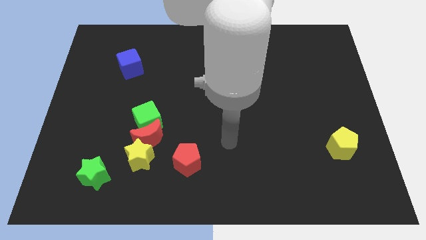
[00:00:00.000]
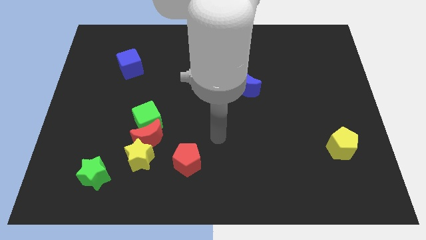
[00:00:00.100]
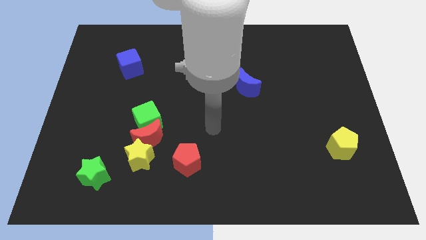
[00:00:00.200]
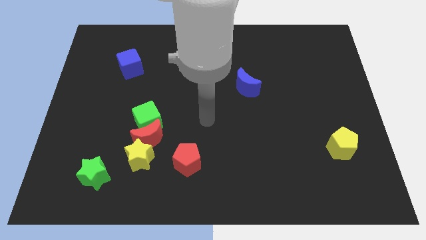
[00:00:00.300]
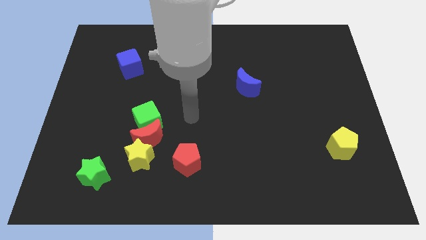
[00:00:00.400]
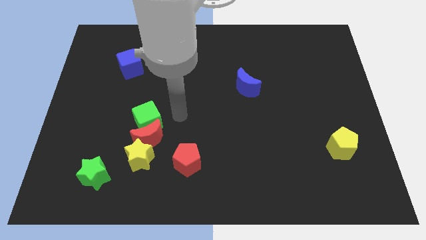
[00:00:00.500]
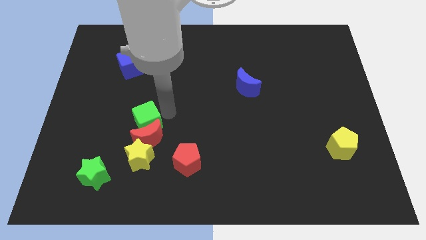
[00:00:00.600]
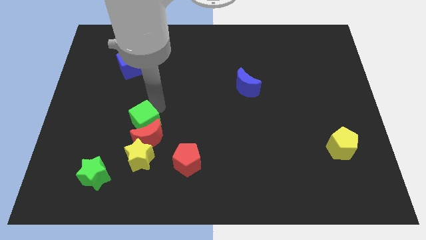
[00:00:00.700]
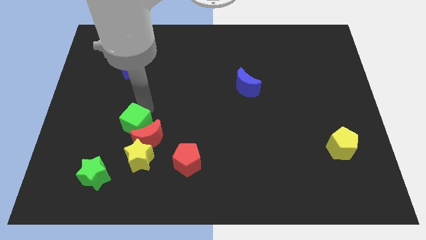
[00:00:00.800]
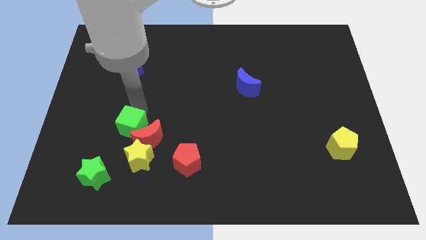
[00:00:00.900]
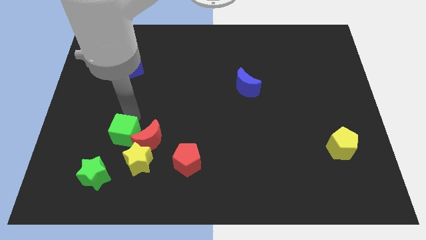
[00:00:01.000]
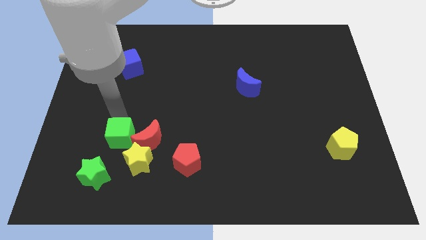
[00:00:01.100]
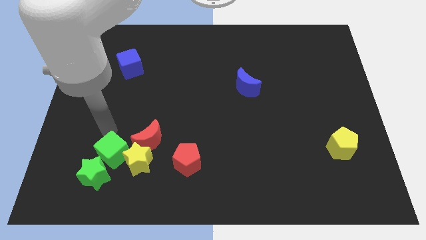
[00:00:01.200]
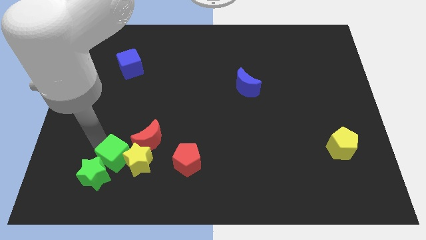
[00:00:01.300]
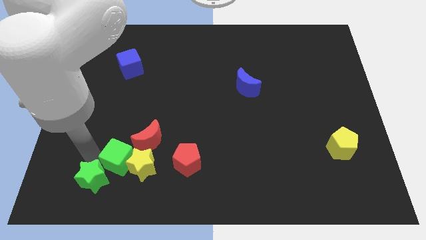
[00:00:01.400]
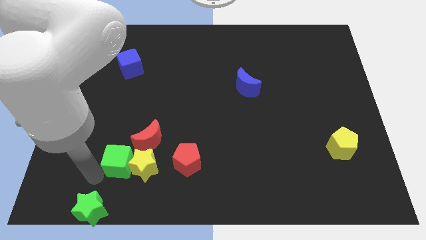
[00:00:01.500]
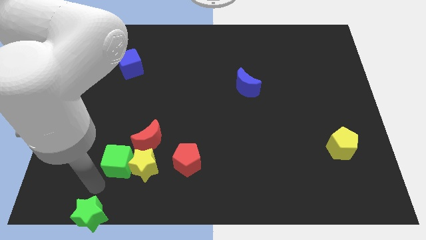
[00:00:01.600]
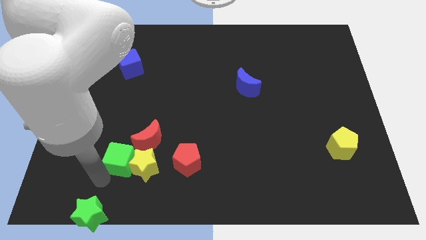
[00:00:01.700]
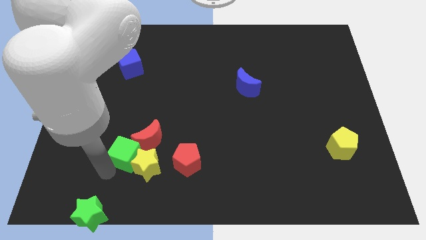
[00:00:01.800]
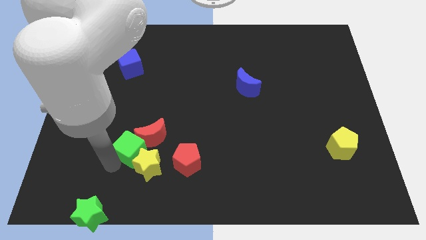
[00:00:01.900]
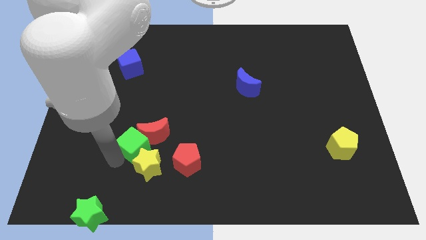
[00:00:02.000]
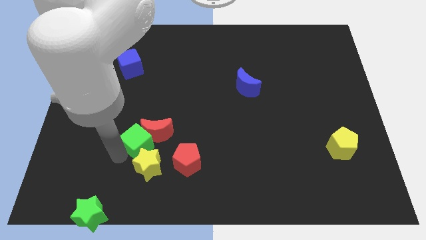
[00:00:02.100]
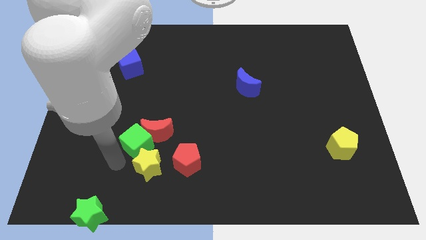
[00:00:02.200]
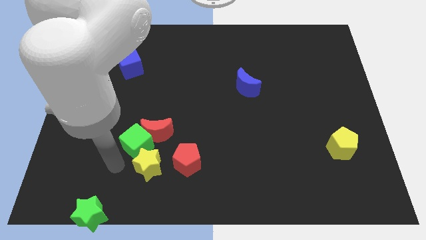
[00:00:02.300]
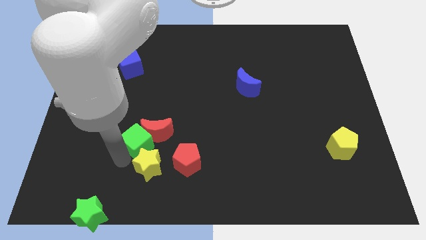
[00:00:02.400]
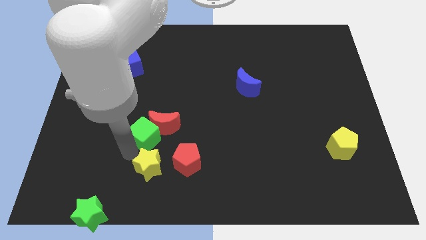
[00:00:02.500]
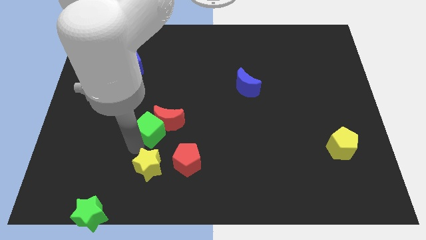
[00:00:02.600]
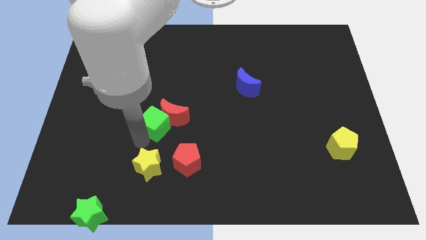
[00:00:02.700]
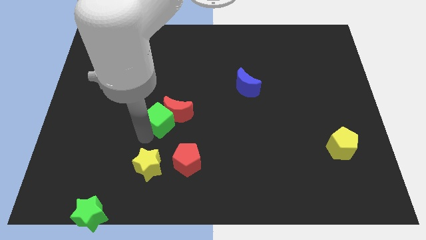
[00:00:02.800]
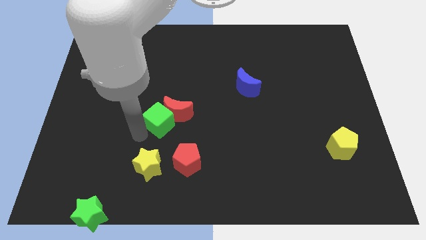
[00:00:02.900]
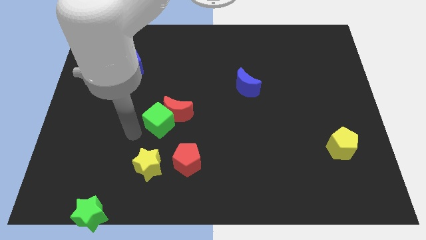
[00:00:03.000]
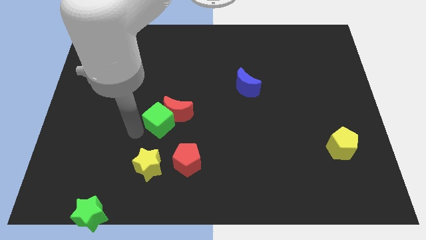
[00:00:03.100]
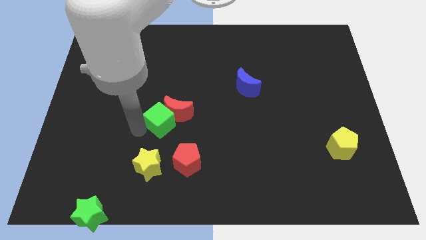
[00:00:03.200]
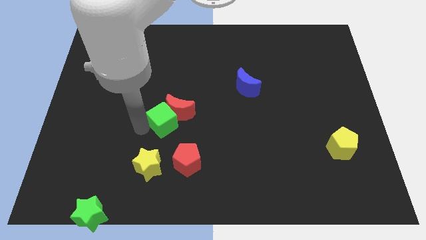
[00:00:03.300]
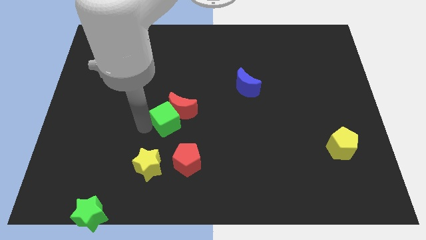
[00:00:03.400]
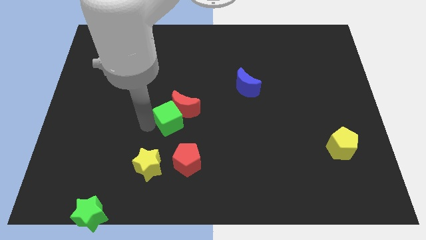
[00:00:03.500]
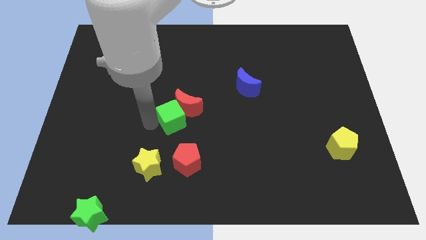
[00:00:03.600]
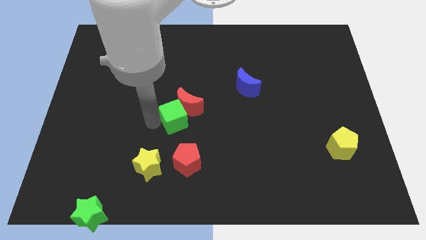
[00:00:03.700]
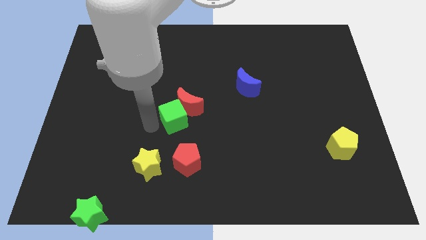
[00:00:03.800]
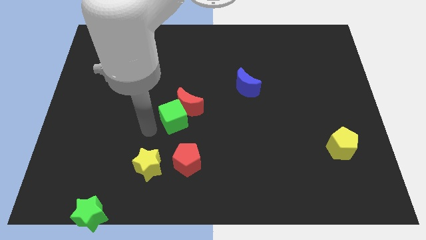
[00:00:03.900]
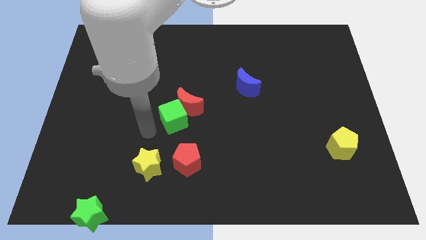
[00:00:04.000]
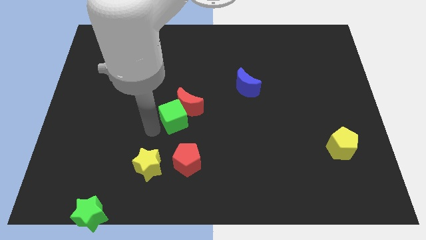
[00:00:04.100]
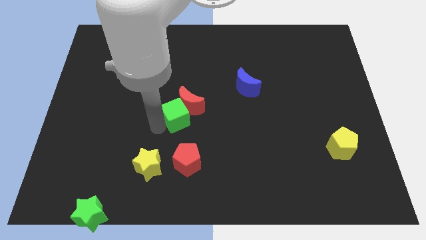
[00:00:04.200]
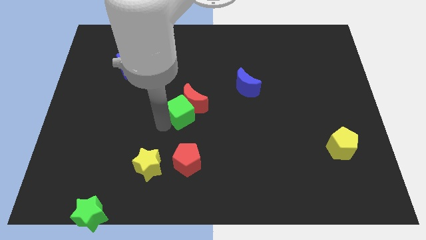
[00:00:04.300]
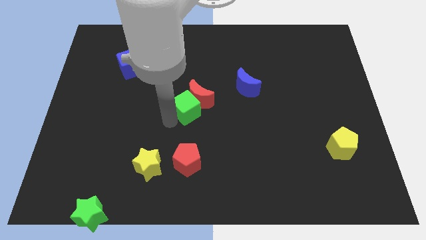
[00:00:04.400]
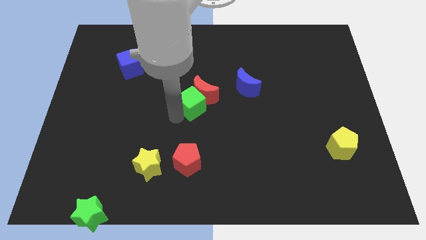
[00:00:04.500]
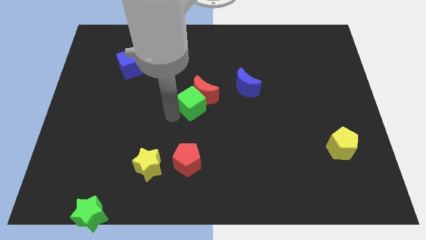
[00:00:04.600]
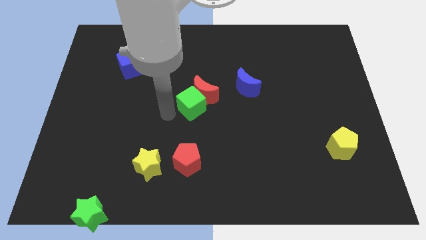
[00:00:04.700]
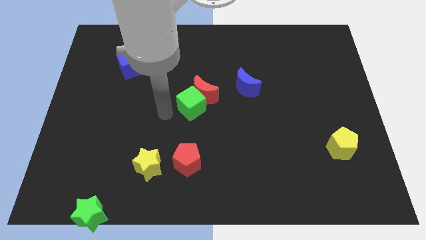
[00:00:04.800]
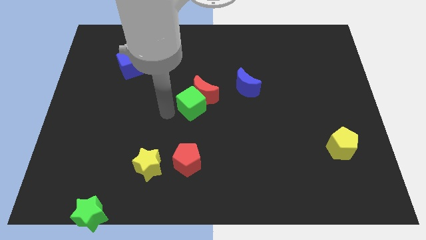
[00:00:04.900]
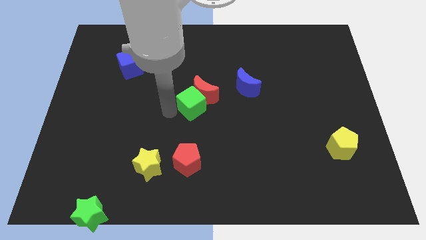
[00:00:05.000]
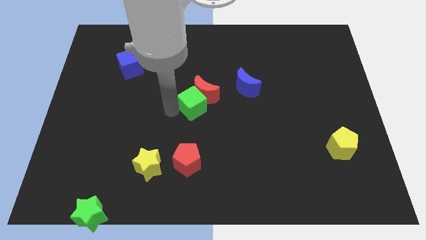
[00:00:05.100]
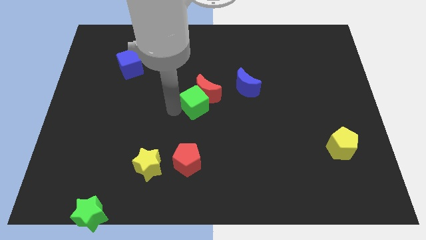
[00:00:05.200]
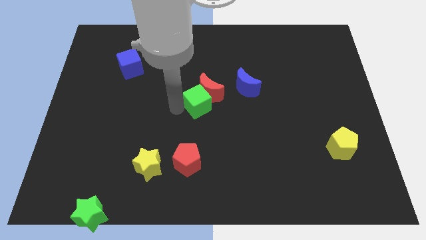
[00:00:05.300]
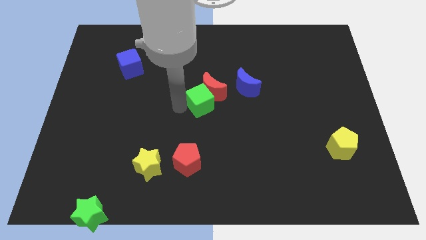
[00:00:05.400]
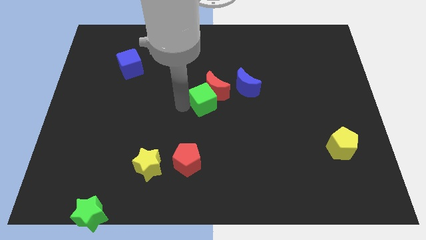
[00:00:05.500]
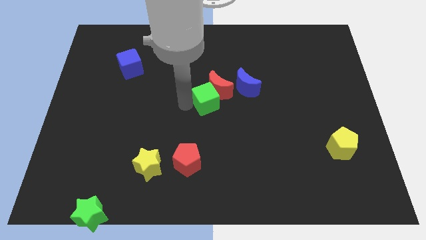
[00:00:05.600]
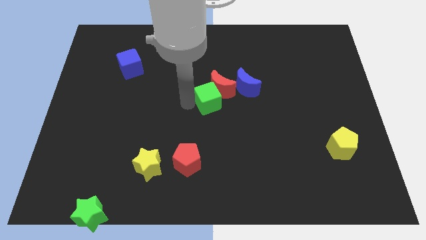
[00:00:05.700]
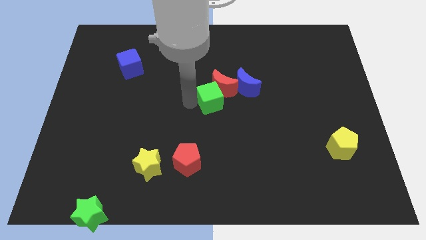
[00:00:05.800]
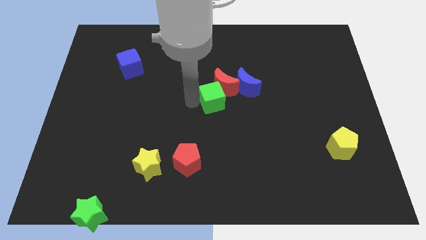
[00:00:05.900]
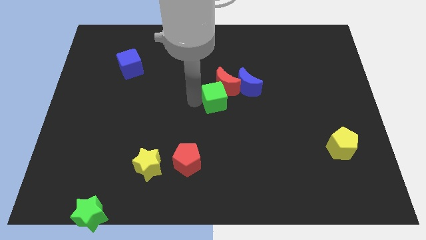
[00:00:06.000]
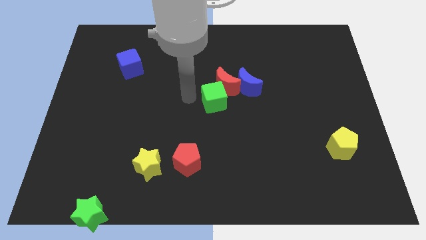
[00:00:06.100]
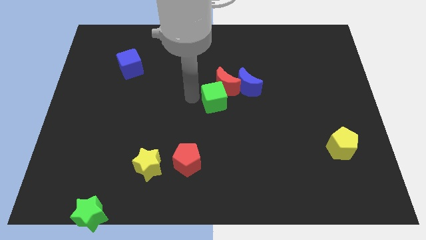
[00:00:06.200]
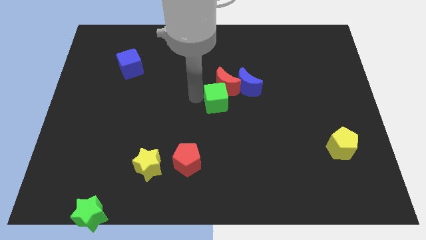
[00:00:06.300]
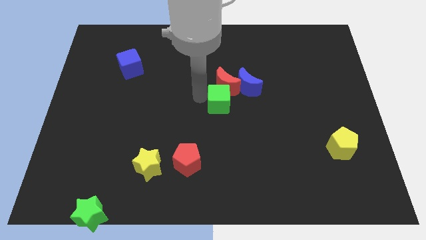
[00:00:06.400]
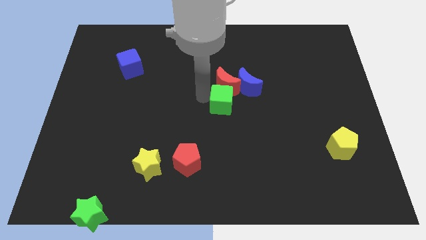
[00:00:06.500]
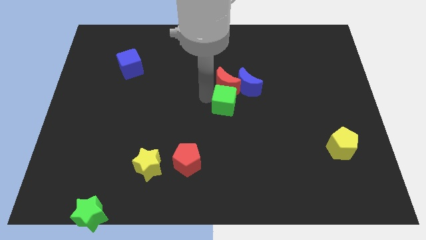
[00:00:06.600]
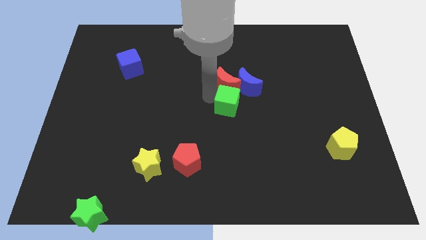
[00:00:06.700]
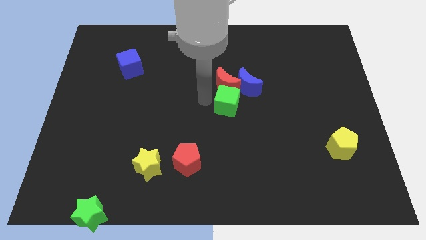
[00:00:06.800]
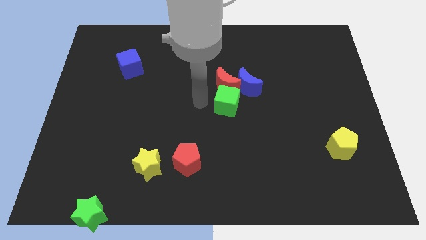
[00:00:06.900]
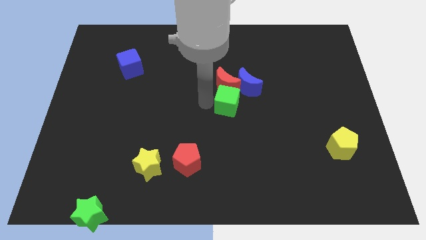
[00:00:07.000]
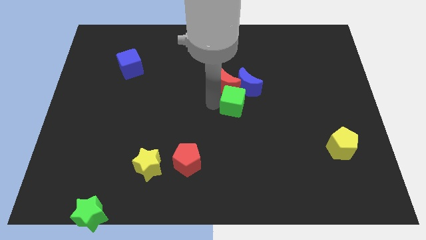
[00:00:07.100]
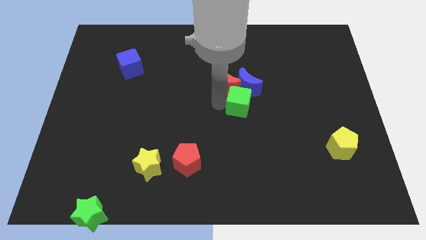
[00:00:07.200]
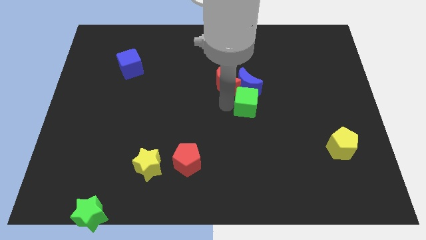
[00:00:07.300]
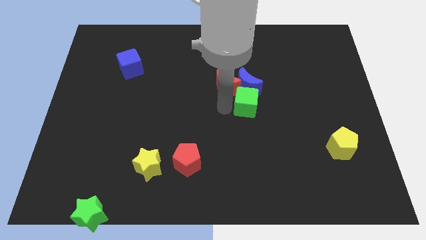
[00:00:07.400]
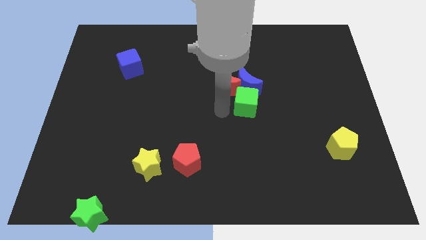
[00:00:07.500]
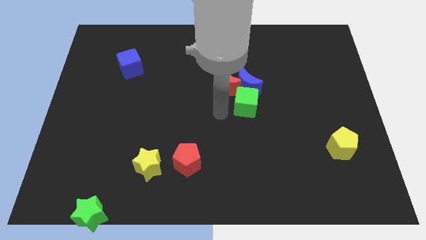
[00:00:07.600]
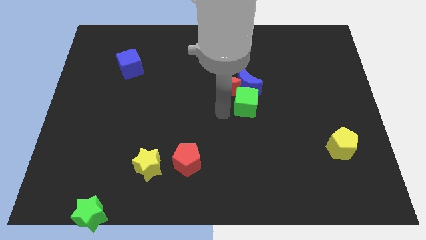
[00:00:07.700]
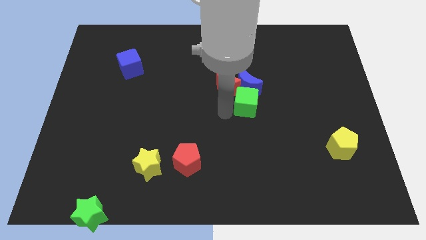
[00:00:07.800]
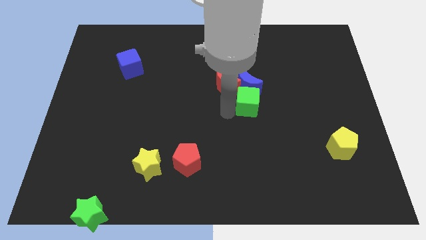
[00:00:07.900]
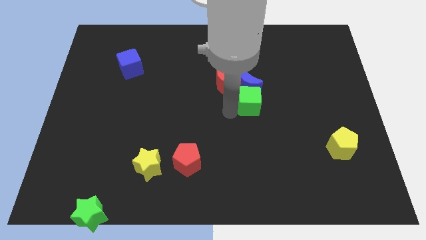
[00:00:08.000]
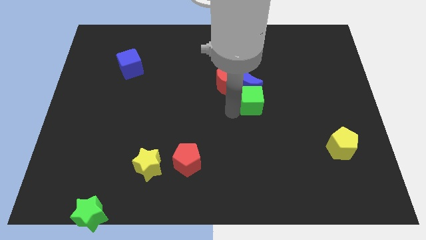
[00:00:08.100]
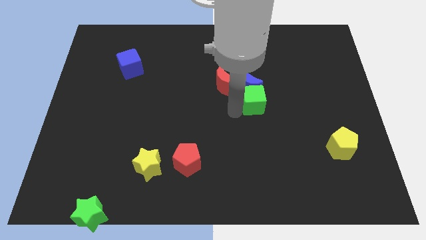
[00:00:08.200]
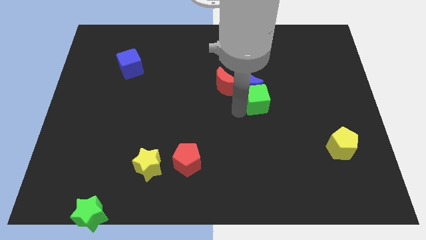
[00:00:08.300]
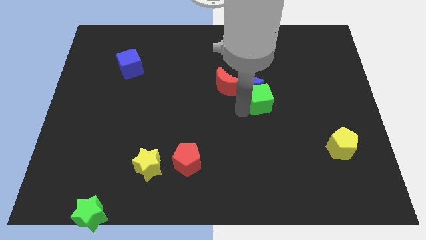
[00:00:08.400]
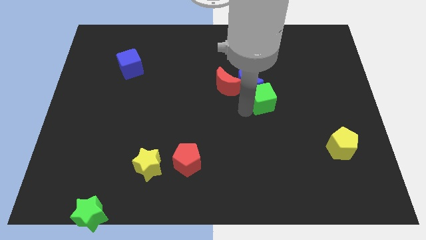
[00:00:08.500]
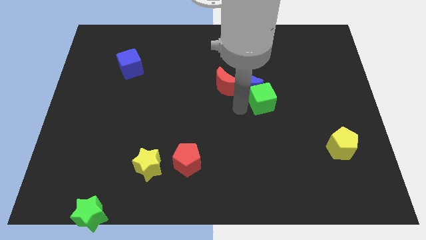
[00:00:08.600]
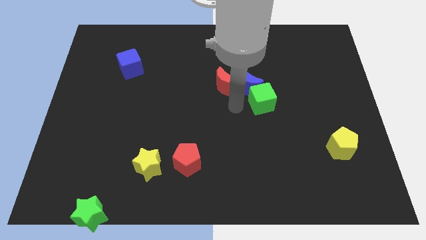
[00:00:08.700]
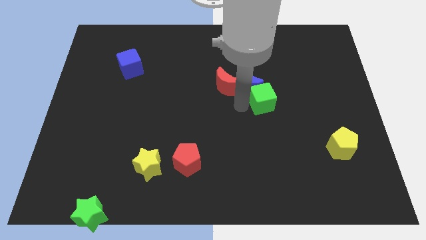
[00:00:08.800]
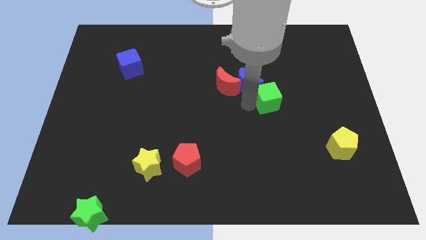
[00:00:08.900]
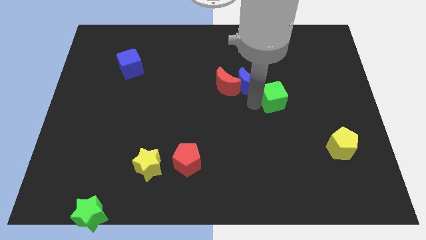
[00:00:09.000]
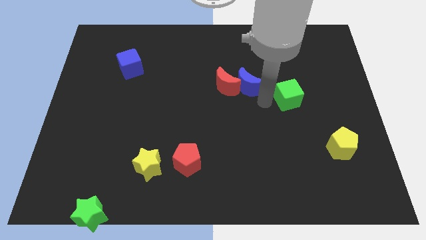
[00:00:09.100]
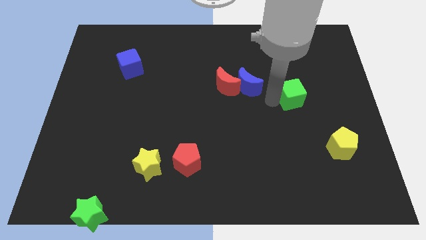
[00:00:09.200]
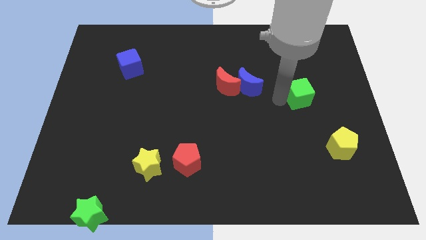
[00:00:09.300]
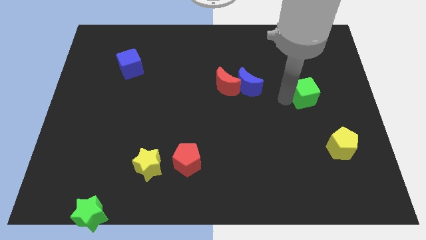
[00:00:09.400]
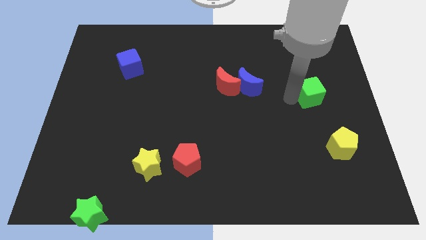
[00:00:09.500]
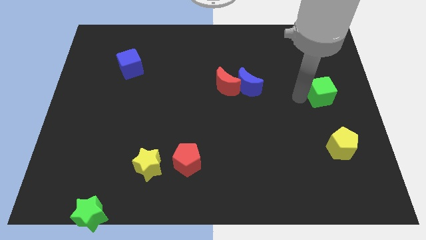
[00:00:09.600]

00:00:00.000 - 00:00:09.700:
move the green cube to the center right
